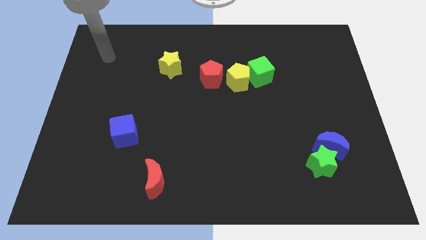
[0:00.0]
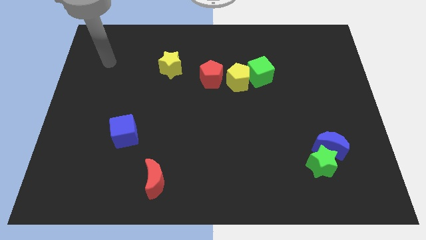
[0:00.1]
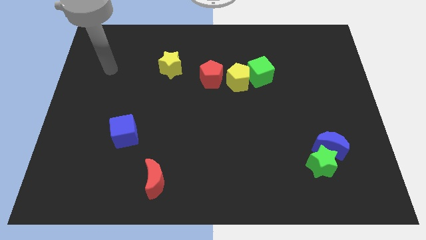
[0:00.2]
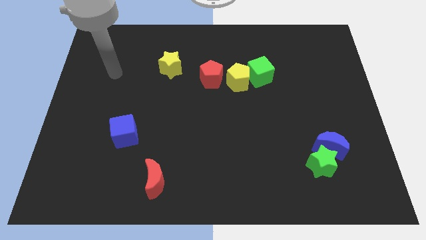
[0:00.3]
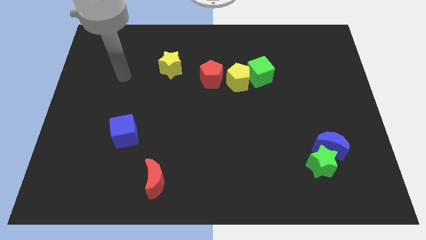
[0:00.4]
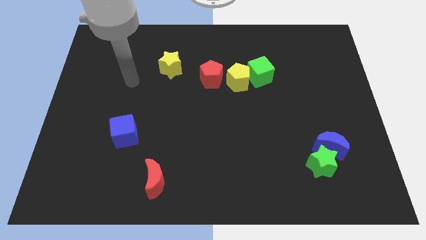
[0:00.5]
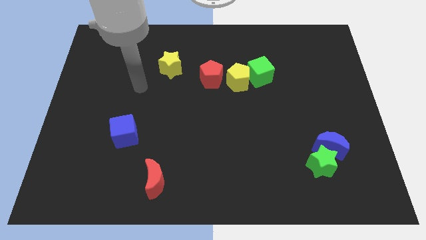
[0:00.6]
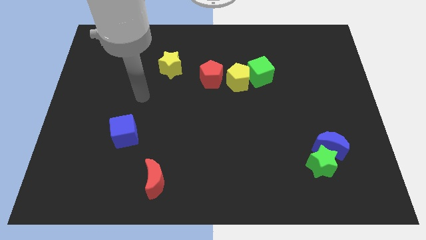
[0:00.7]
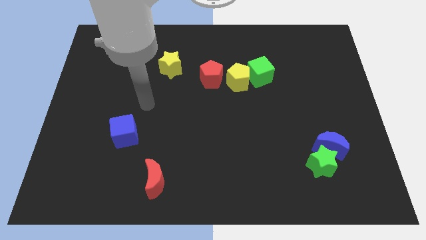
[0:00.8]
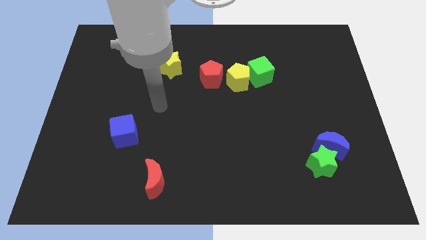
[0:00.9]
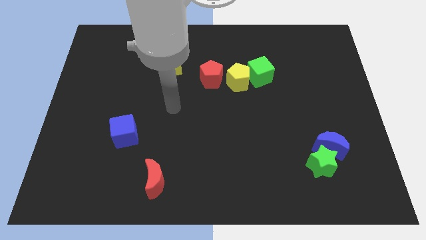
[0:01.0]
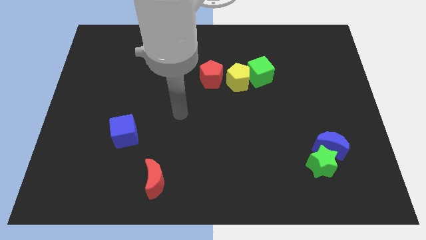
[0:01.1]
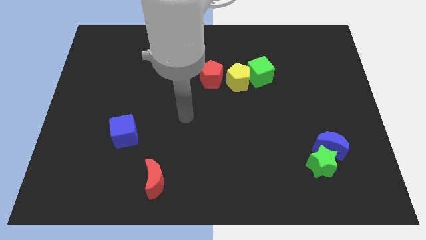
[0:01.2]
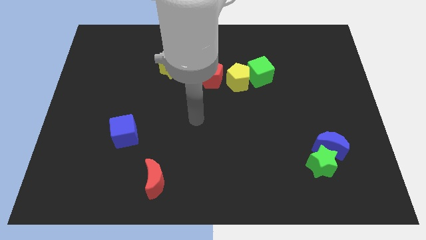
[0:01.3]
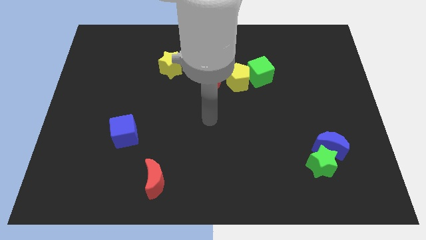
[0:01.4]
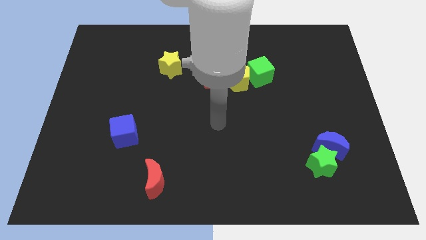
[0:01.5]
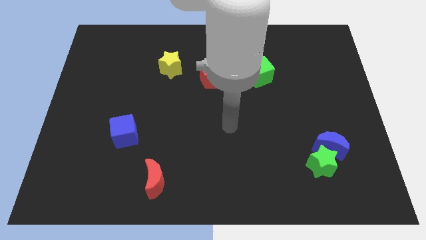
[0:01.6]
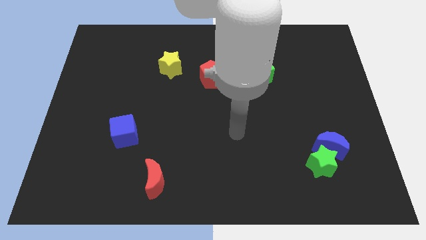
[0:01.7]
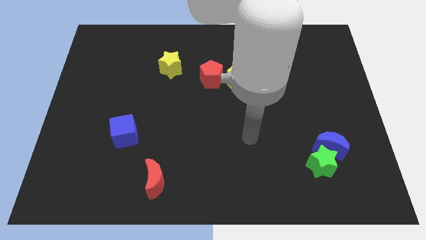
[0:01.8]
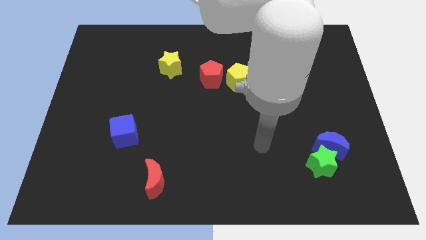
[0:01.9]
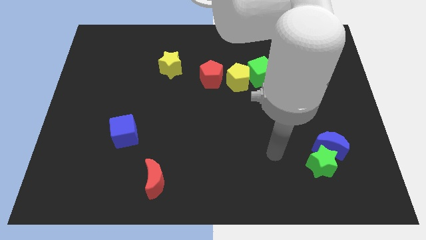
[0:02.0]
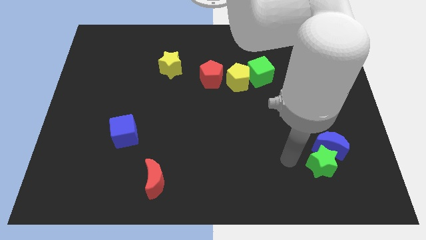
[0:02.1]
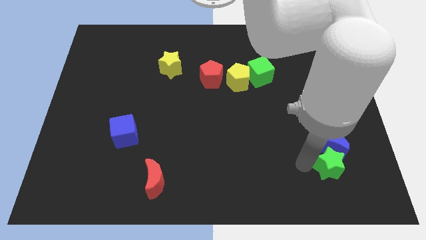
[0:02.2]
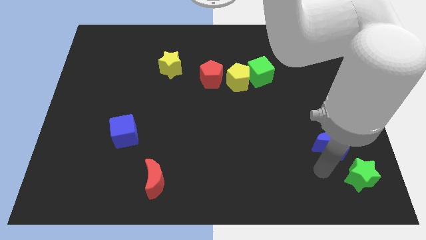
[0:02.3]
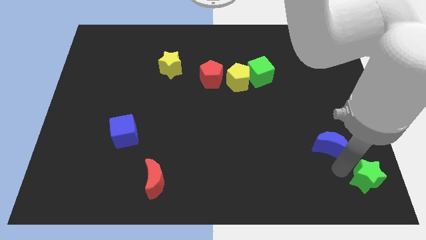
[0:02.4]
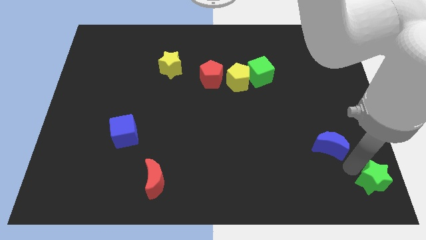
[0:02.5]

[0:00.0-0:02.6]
separate the blue moon from the green star

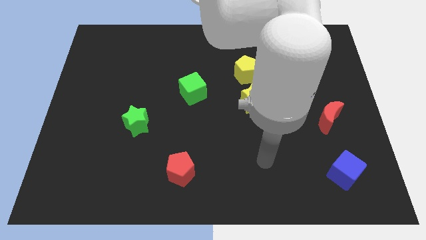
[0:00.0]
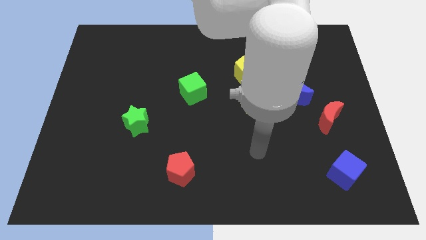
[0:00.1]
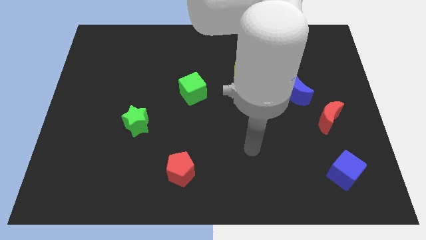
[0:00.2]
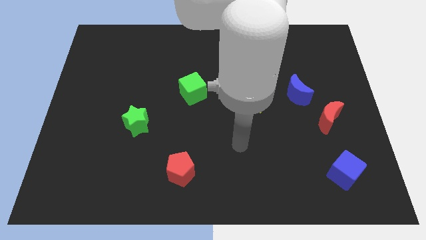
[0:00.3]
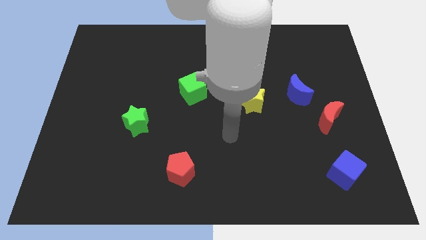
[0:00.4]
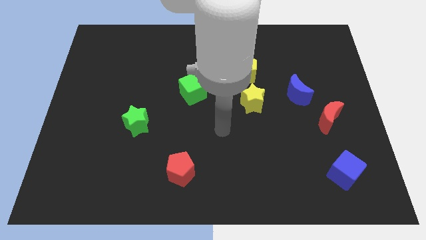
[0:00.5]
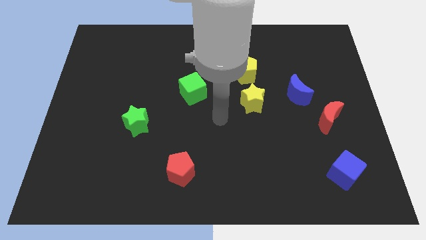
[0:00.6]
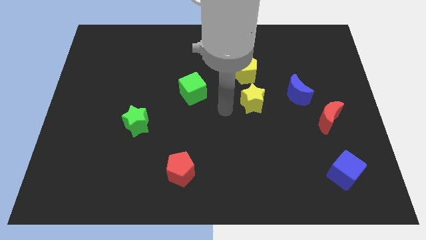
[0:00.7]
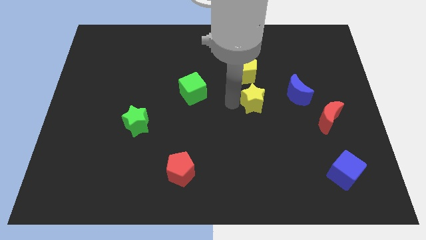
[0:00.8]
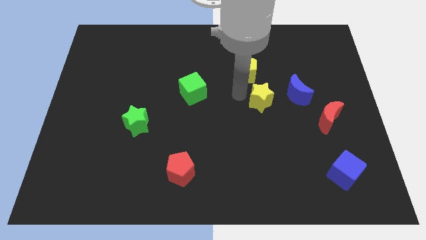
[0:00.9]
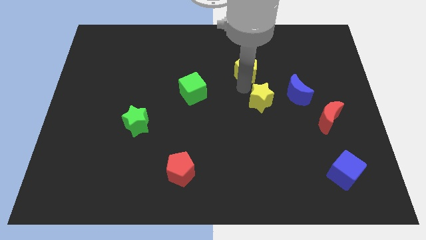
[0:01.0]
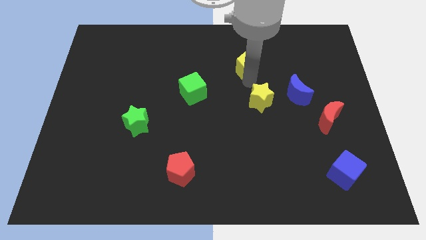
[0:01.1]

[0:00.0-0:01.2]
move the yellow star away from the yellow pentagon

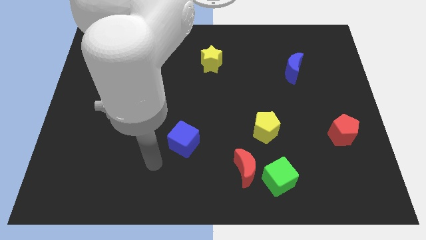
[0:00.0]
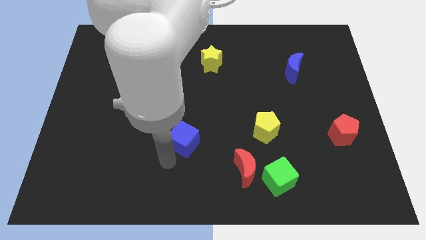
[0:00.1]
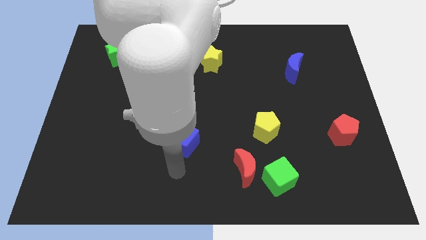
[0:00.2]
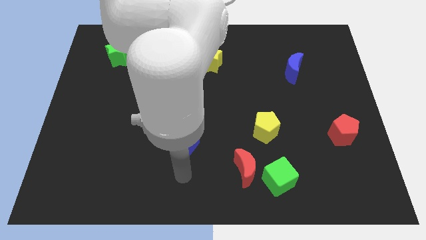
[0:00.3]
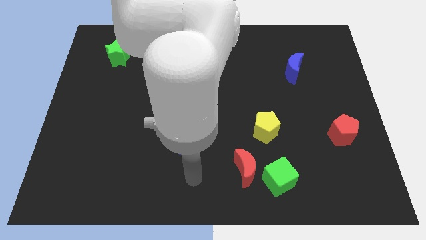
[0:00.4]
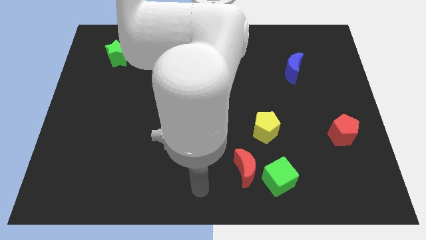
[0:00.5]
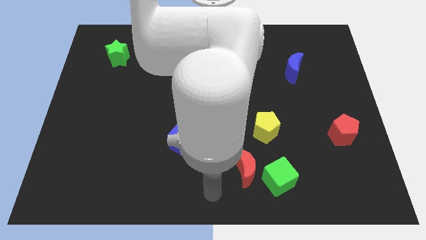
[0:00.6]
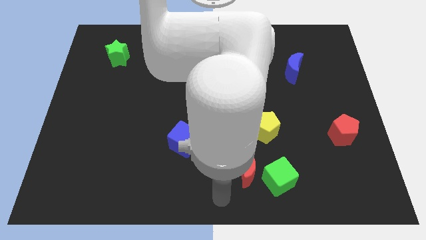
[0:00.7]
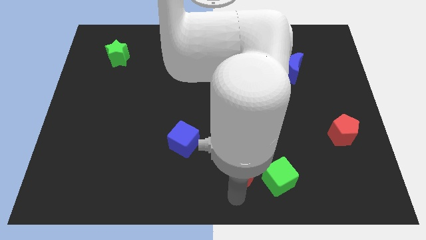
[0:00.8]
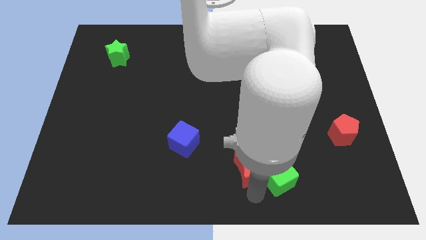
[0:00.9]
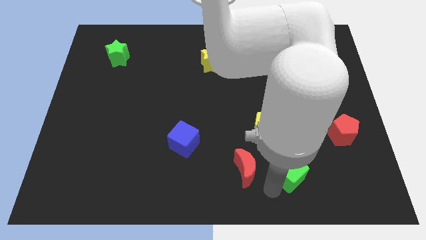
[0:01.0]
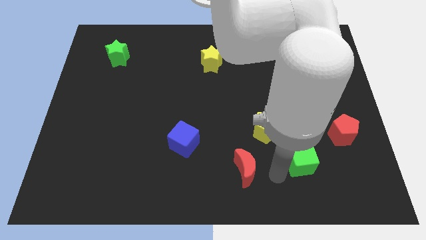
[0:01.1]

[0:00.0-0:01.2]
pull the red moon apart from the green cube

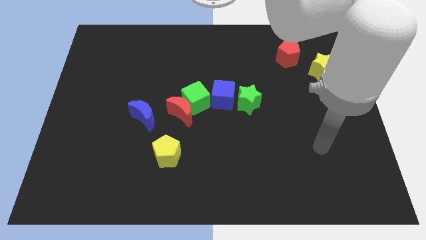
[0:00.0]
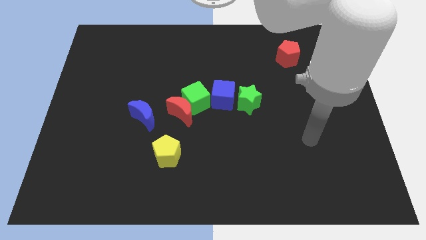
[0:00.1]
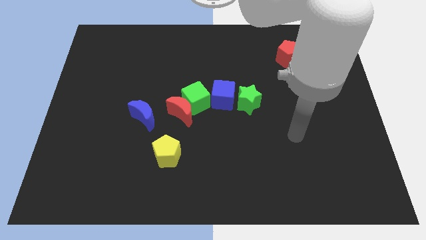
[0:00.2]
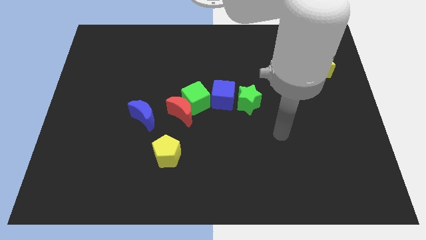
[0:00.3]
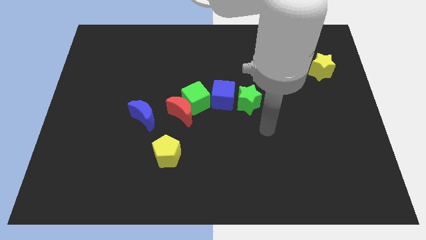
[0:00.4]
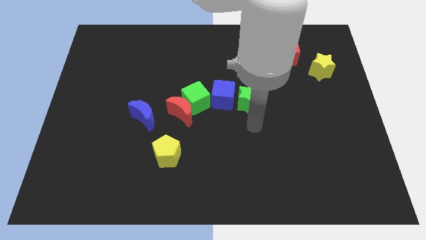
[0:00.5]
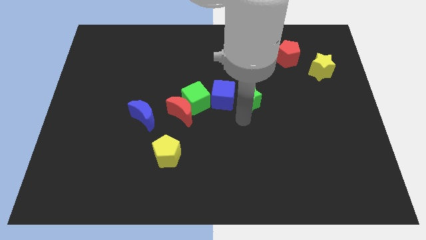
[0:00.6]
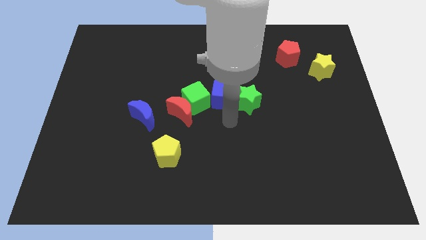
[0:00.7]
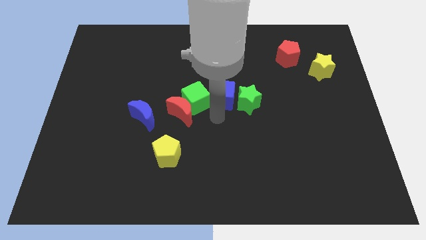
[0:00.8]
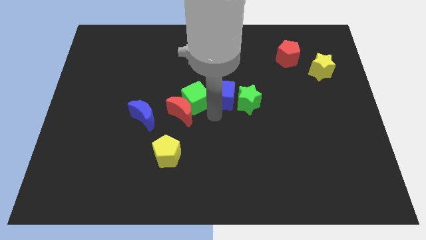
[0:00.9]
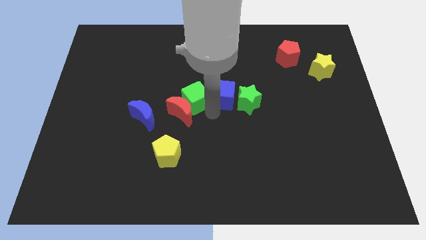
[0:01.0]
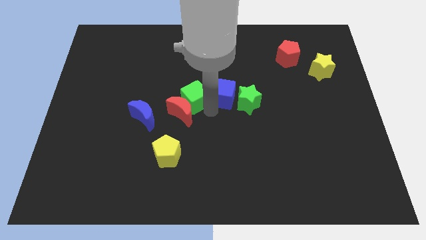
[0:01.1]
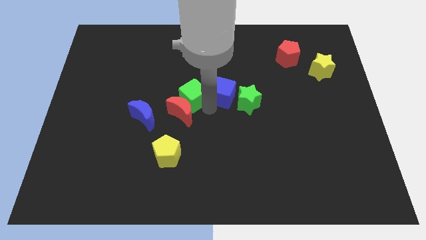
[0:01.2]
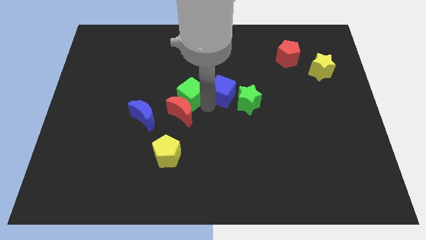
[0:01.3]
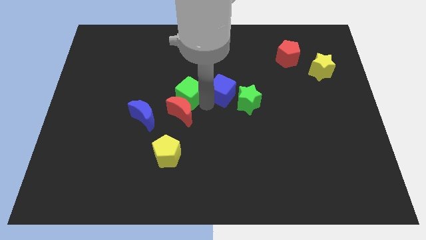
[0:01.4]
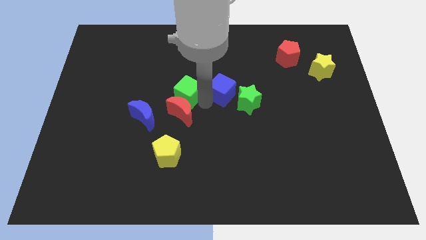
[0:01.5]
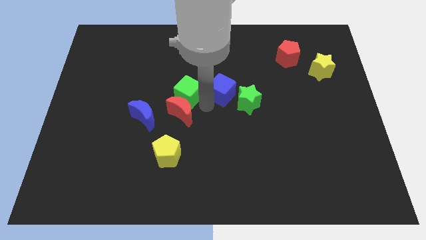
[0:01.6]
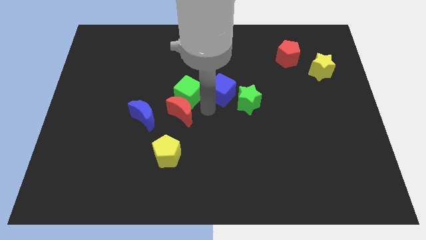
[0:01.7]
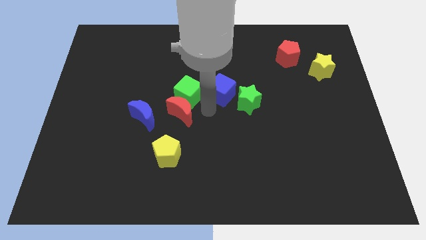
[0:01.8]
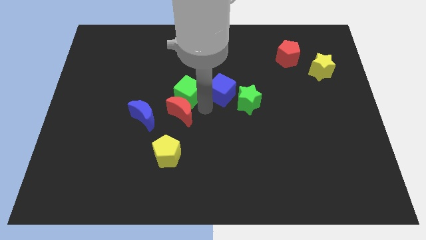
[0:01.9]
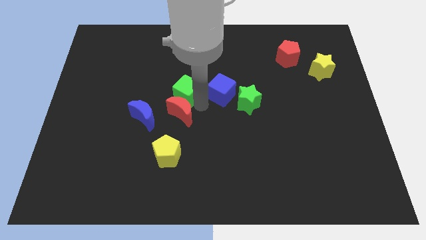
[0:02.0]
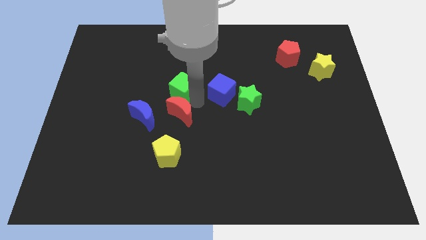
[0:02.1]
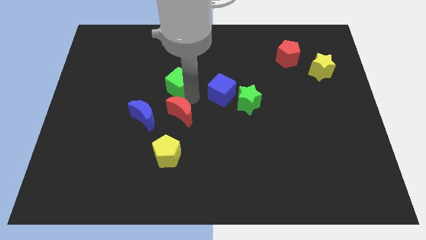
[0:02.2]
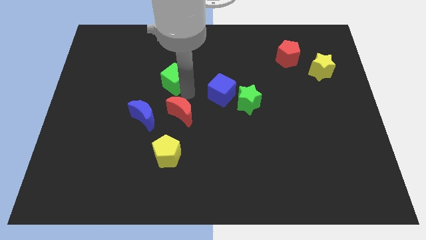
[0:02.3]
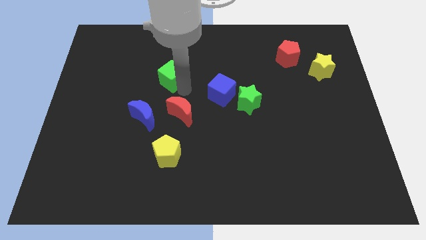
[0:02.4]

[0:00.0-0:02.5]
pull the green cube apart from the red moon and blue cube

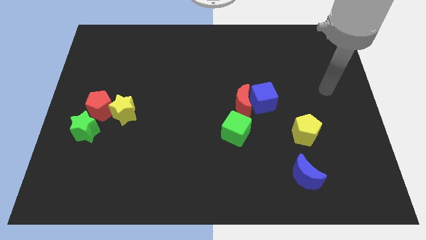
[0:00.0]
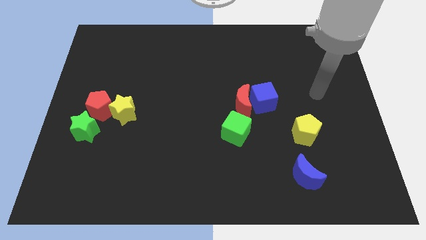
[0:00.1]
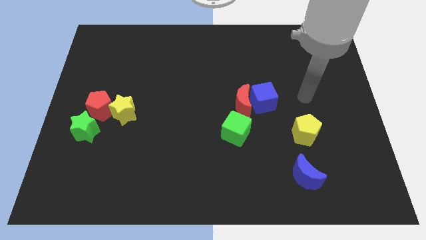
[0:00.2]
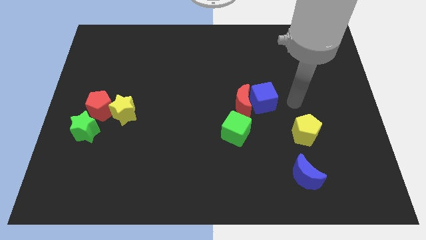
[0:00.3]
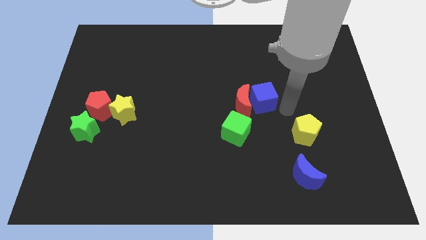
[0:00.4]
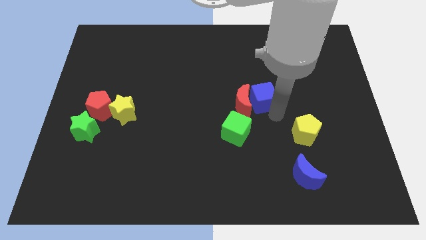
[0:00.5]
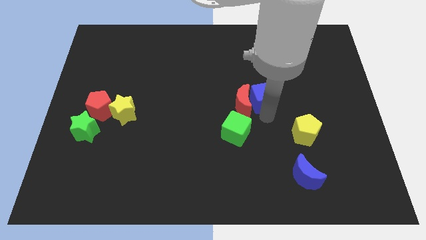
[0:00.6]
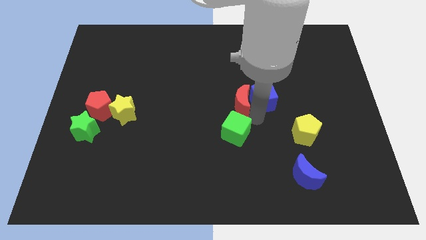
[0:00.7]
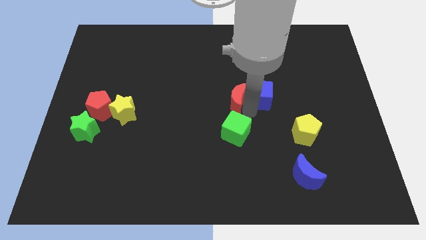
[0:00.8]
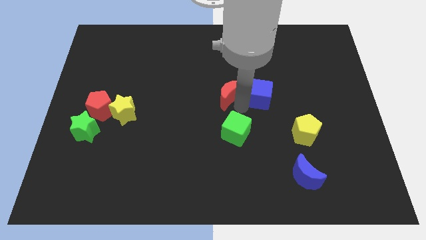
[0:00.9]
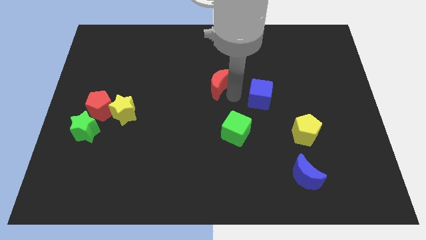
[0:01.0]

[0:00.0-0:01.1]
separate the blue cube from the red moon

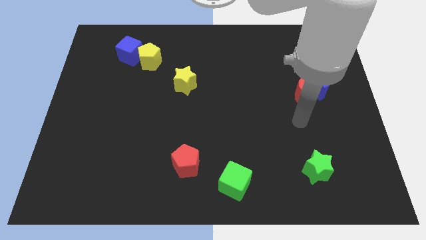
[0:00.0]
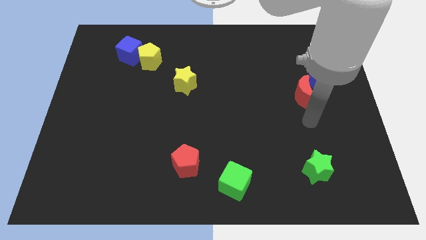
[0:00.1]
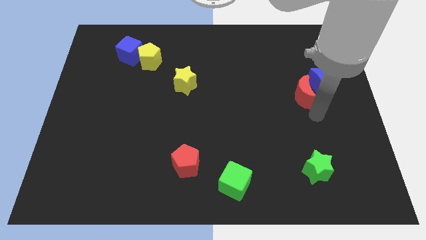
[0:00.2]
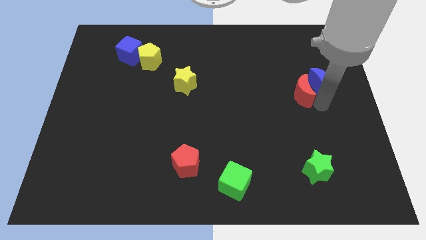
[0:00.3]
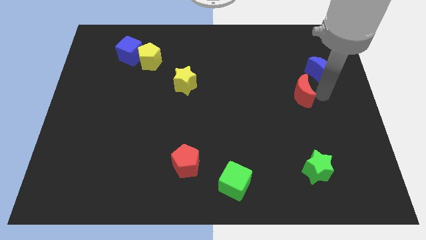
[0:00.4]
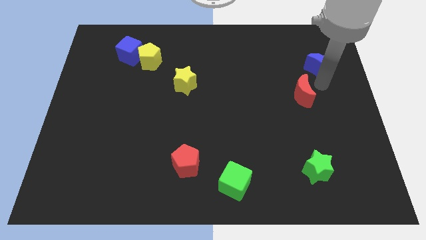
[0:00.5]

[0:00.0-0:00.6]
separate the red moon from the blue moon

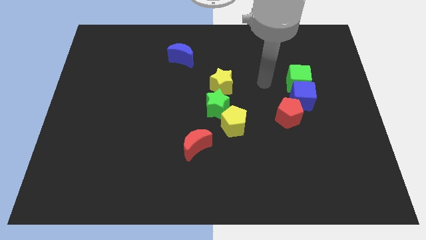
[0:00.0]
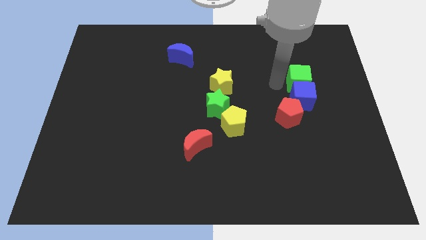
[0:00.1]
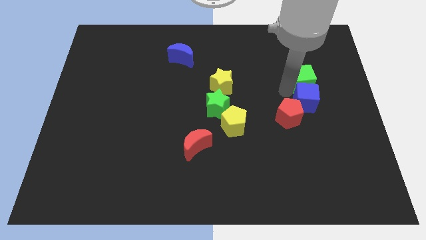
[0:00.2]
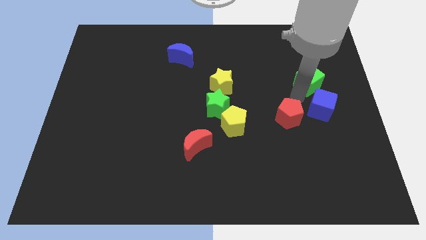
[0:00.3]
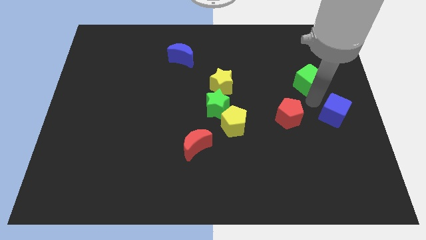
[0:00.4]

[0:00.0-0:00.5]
move the green cube away from the blue cube
